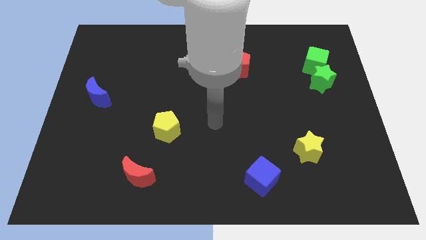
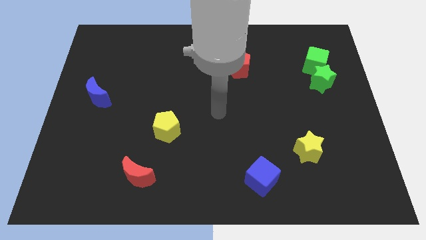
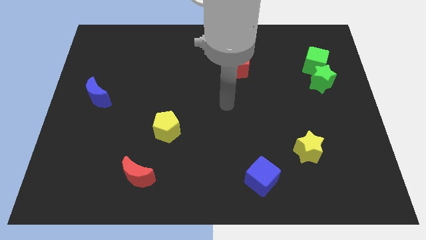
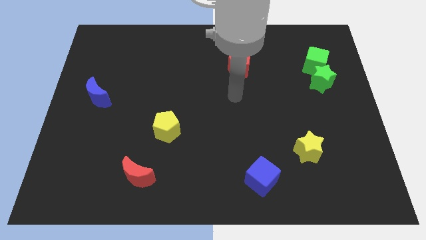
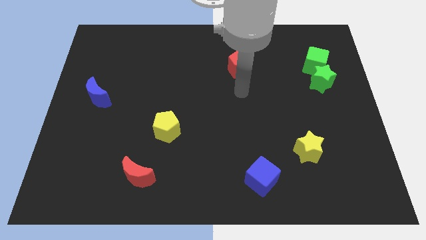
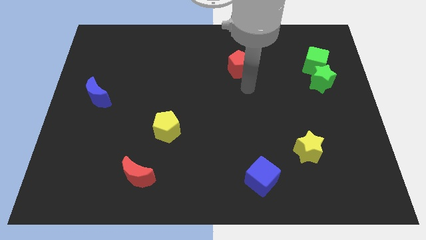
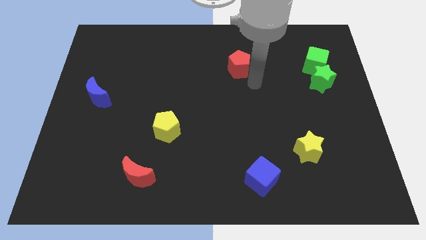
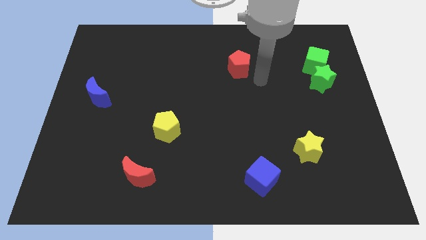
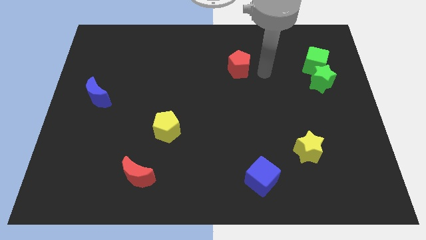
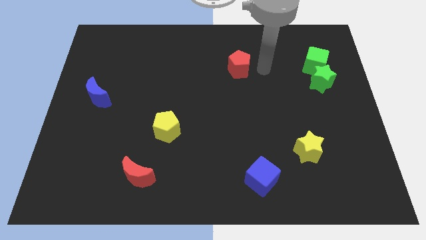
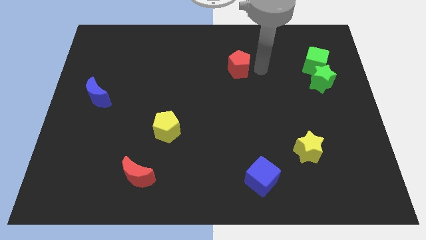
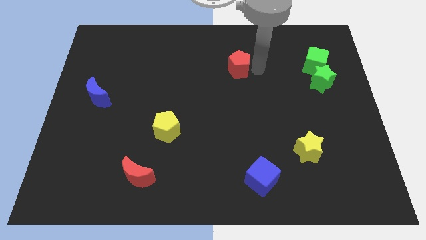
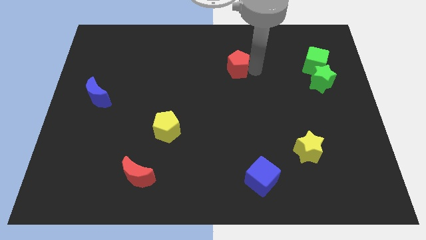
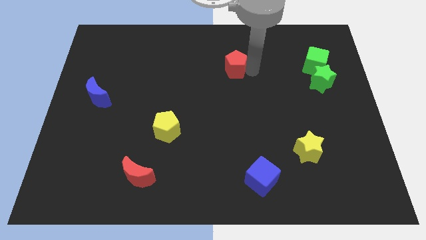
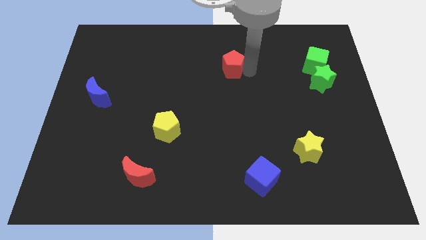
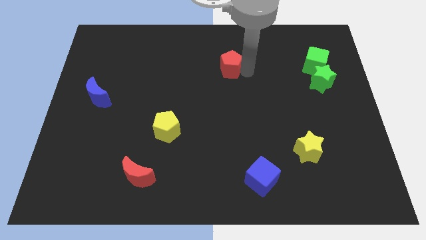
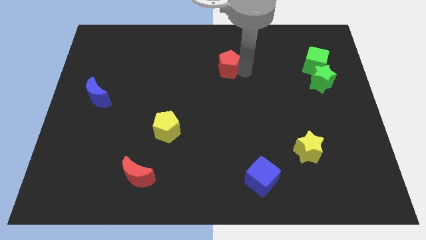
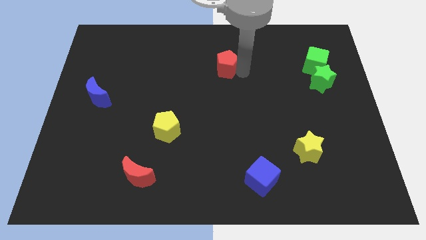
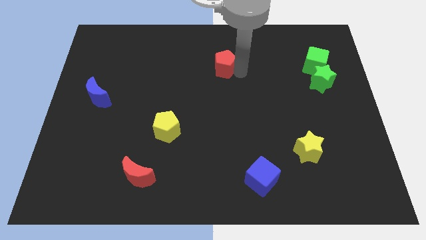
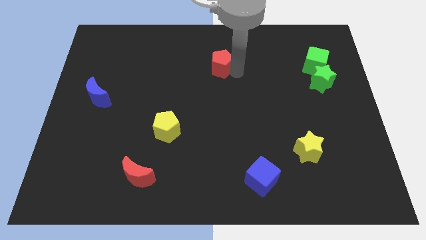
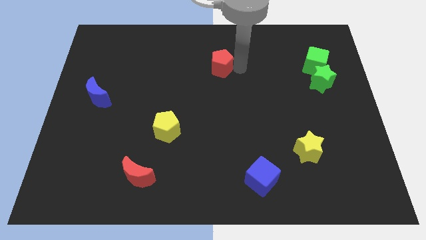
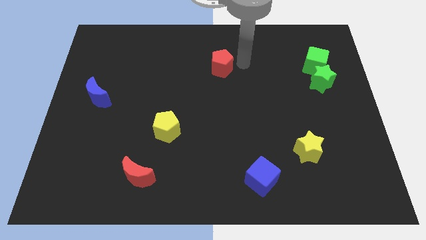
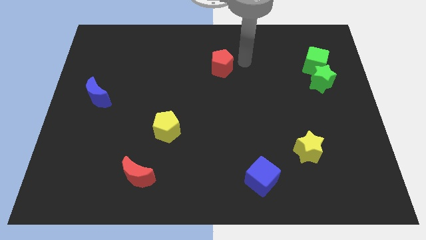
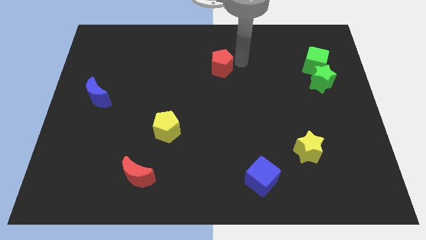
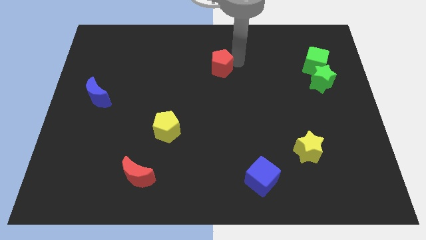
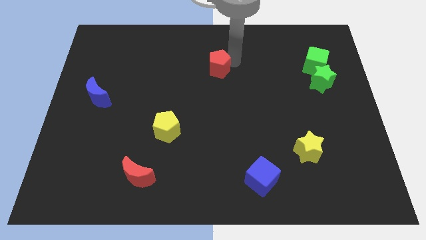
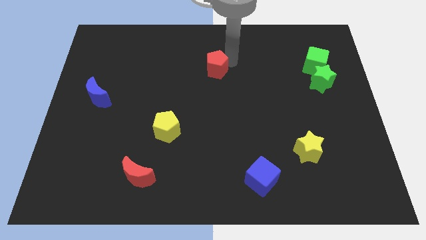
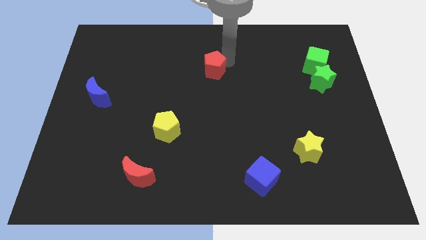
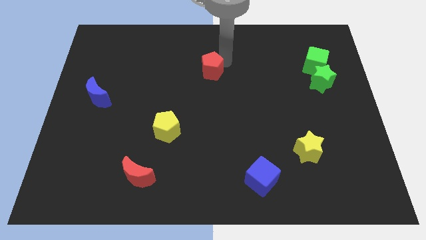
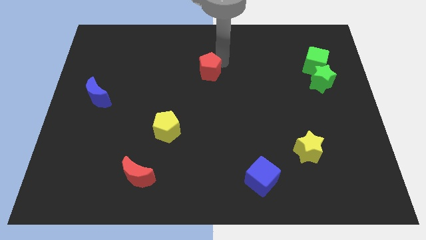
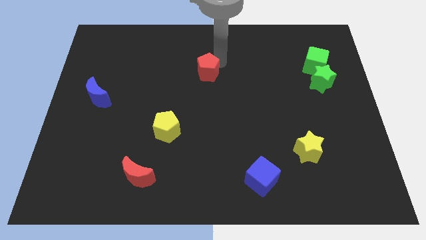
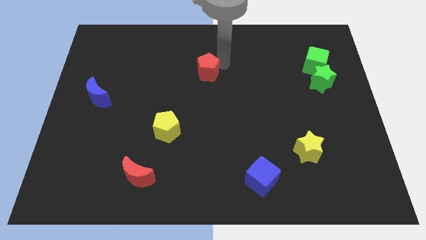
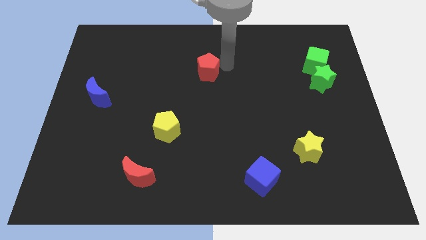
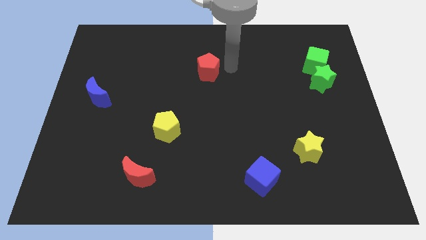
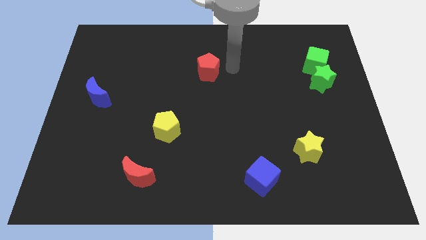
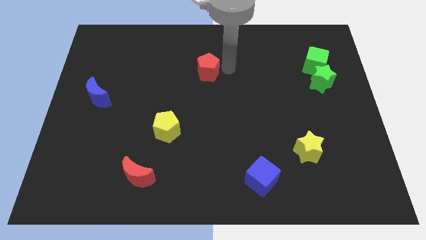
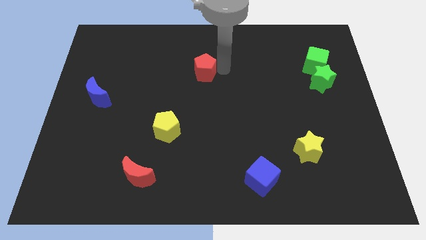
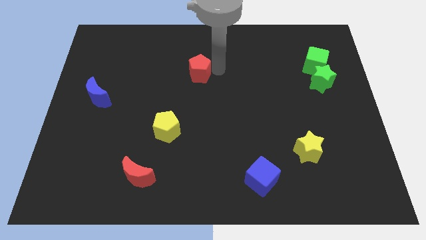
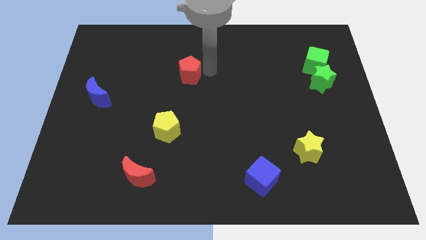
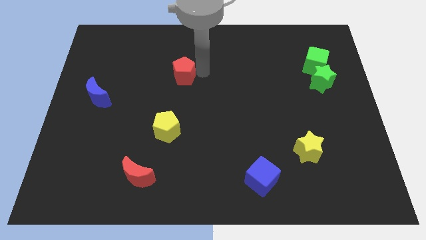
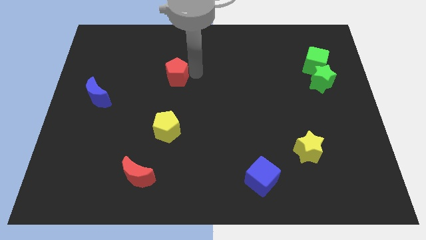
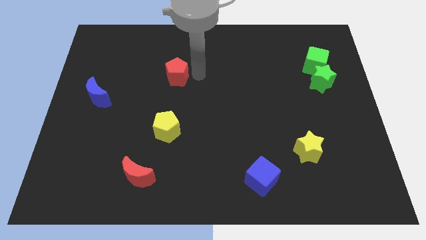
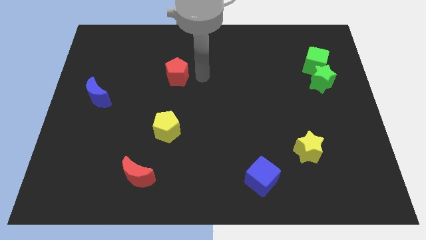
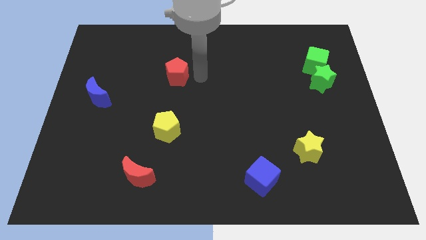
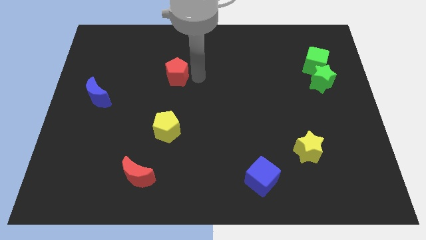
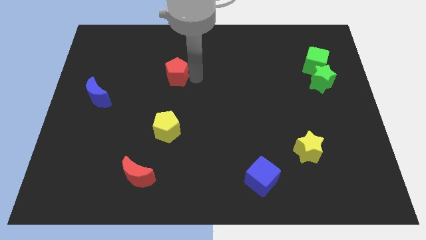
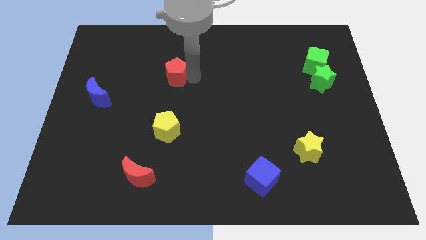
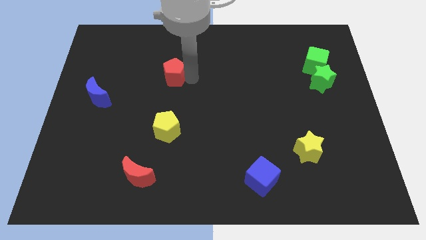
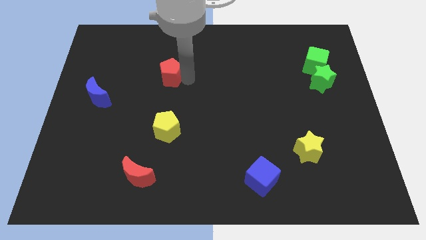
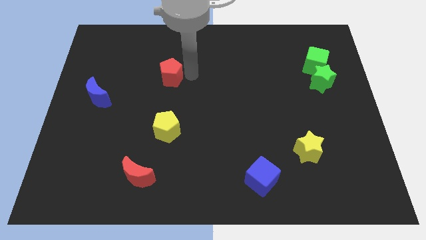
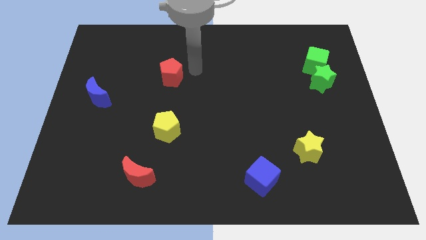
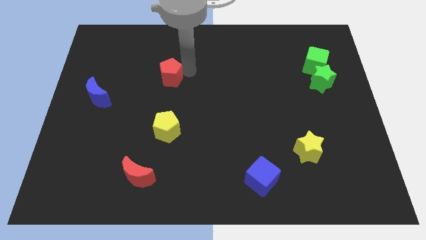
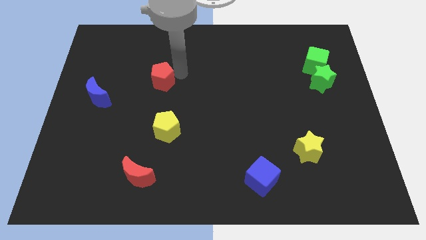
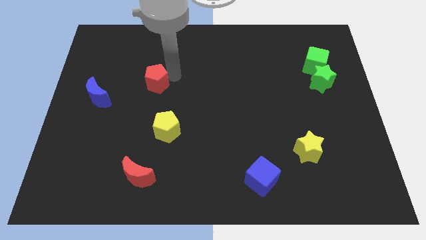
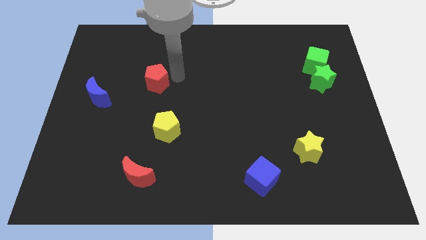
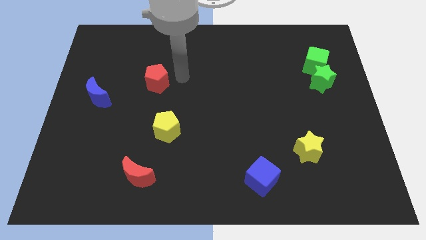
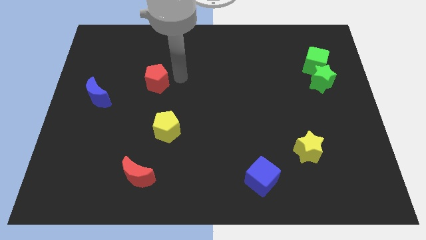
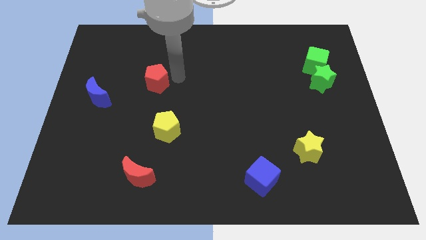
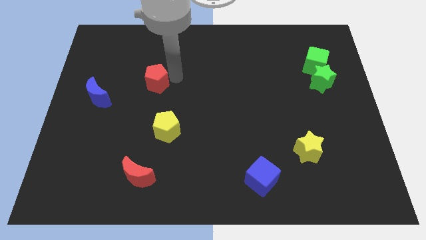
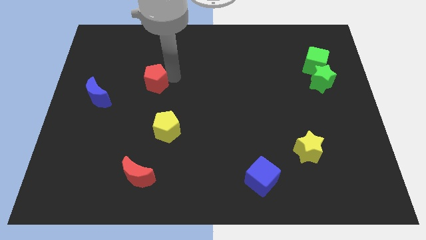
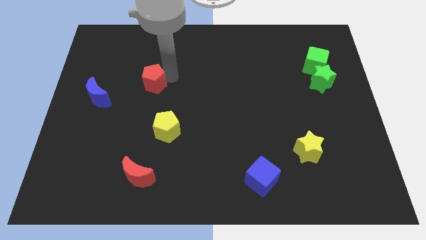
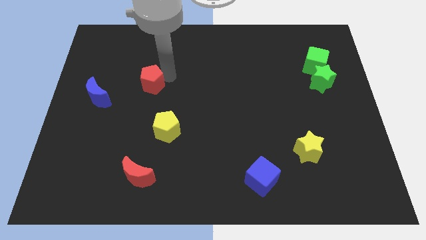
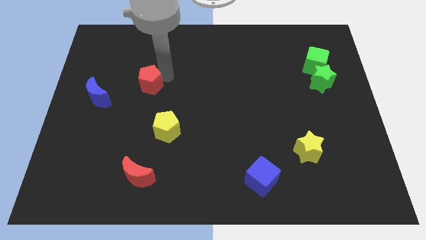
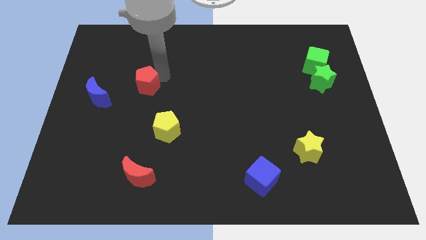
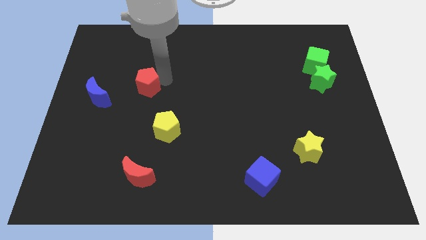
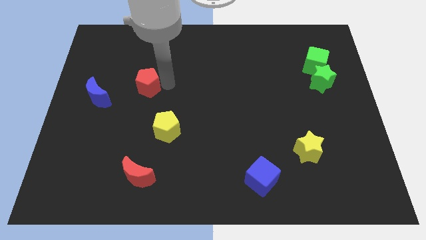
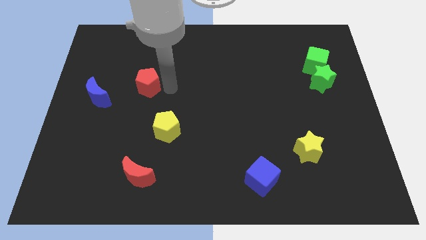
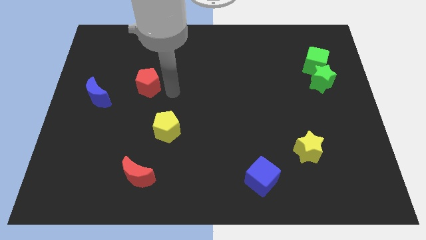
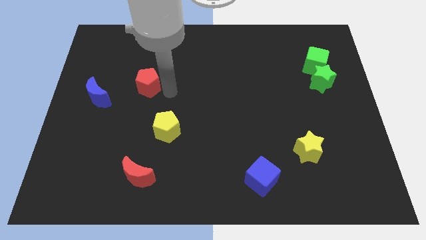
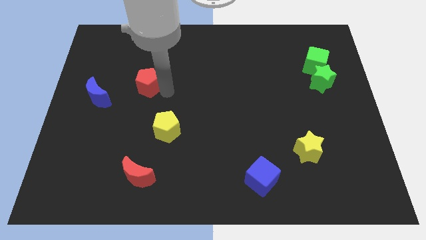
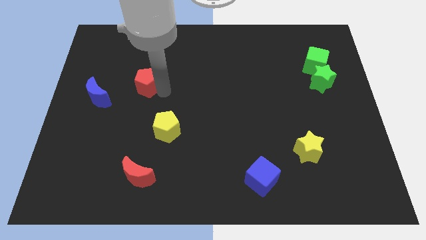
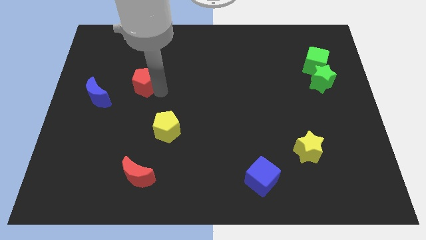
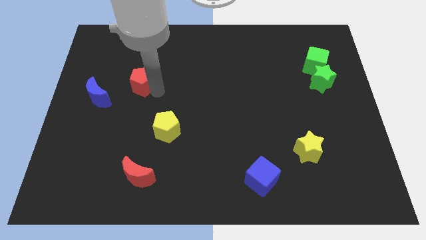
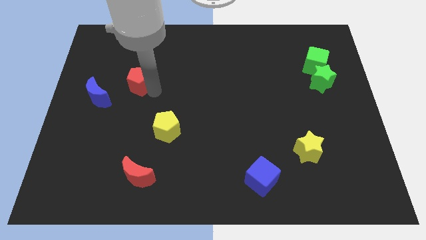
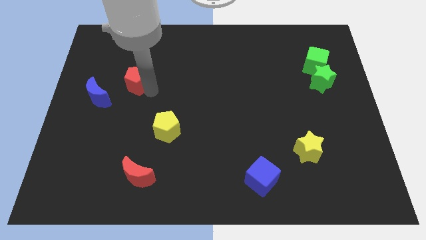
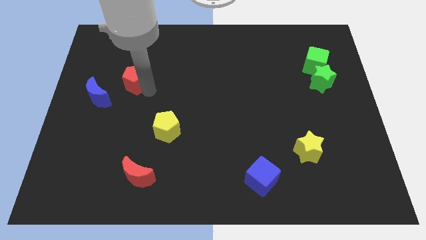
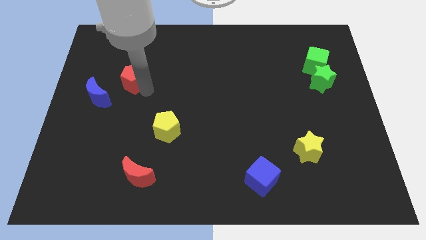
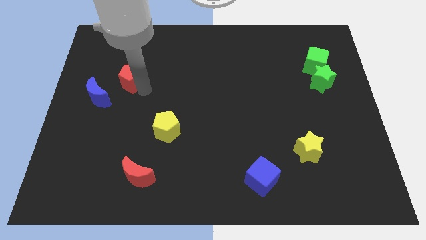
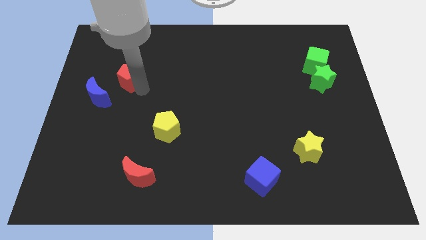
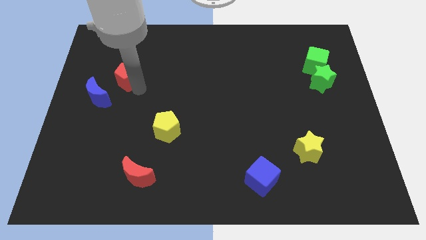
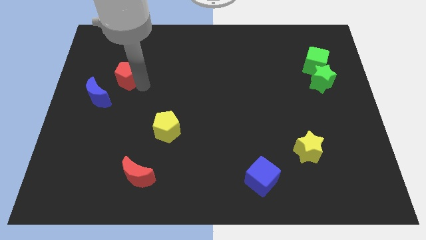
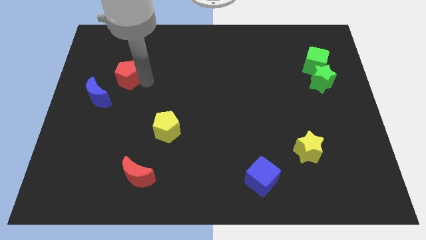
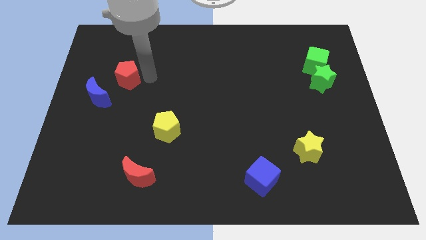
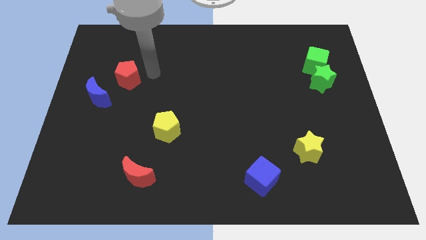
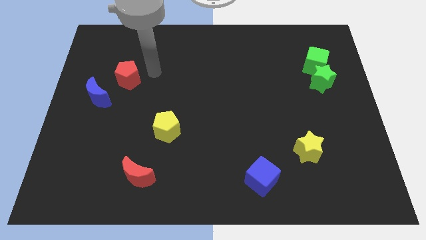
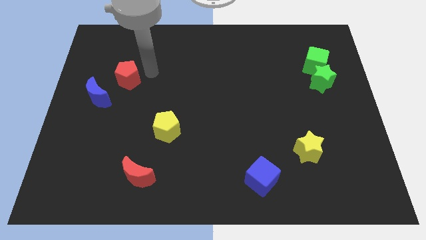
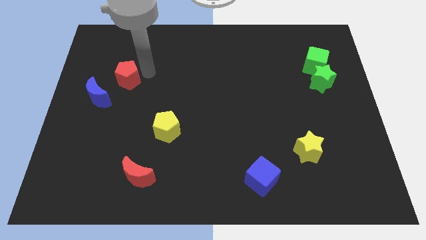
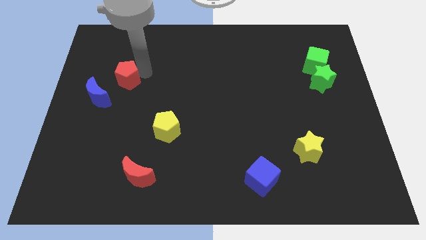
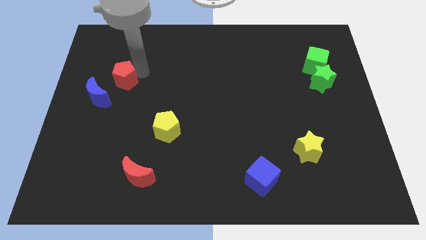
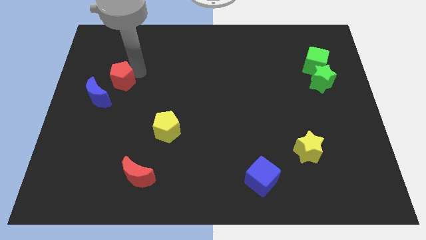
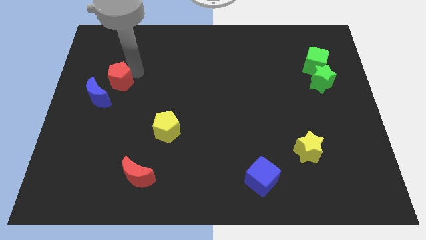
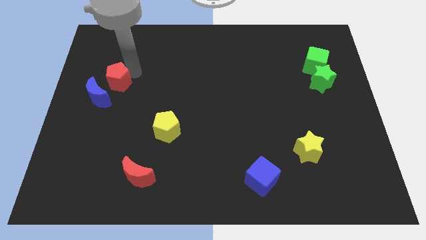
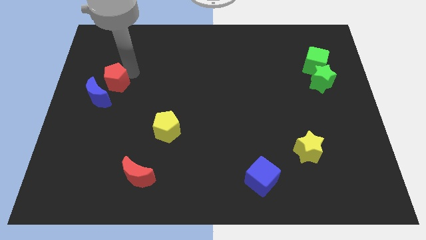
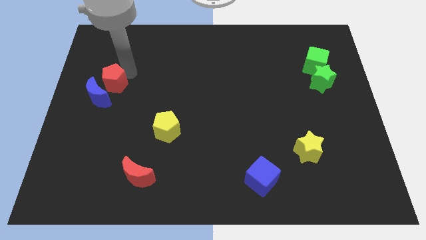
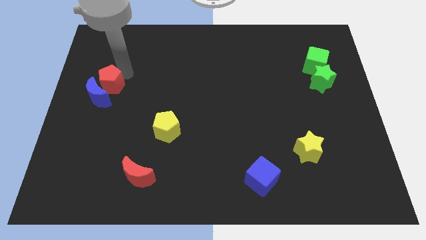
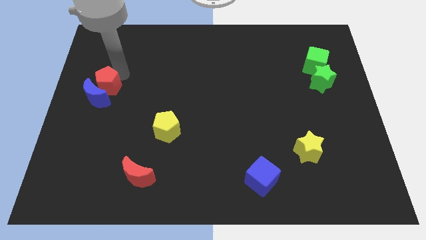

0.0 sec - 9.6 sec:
push the red pentagon to the left side of the board
